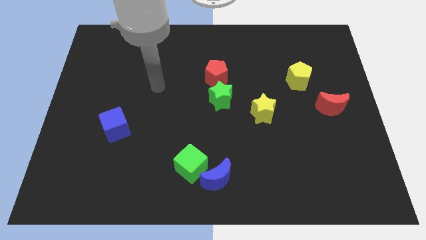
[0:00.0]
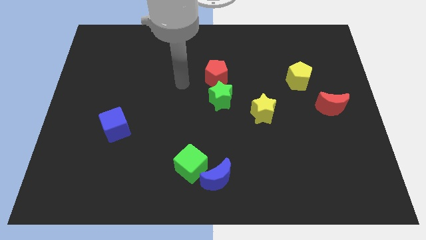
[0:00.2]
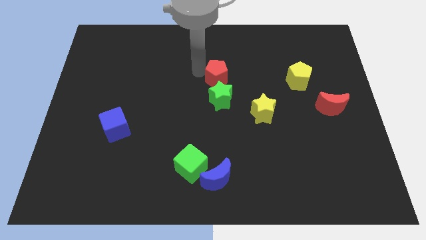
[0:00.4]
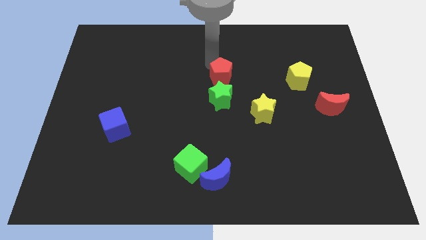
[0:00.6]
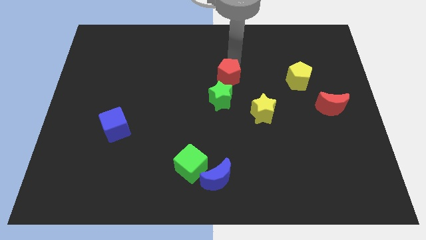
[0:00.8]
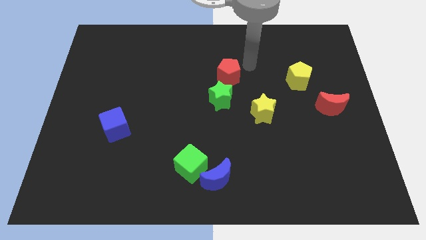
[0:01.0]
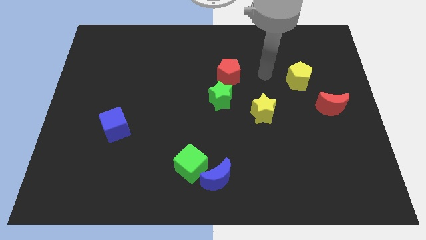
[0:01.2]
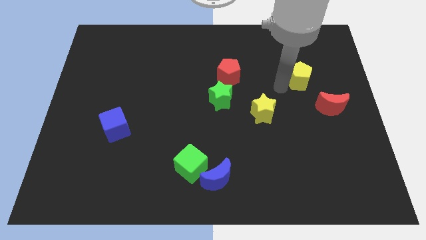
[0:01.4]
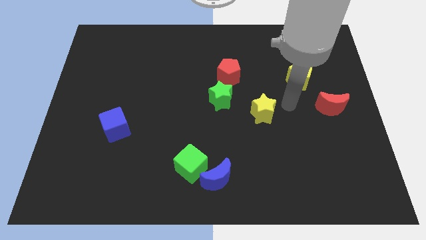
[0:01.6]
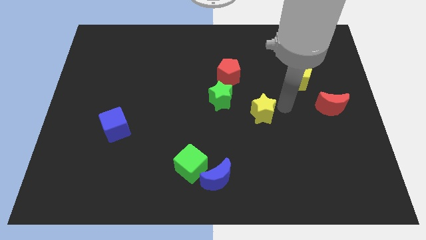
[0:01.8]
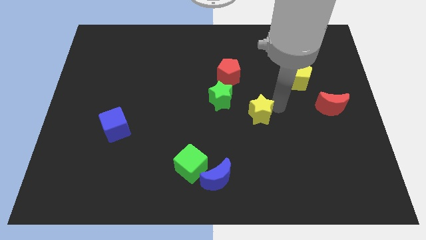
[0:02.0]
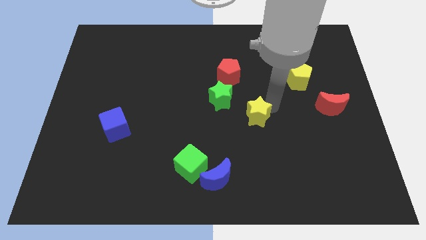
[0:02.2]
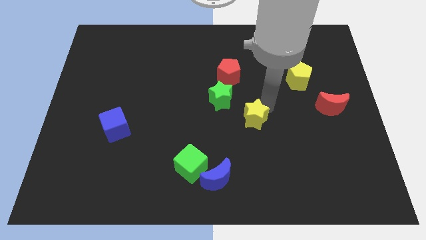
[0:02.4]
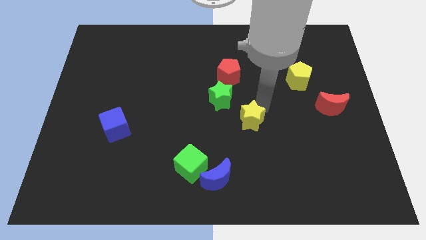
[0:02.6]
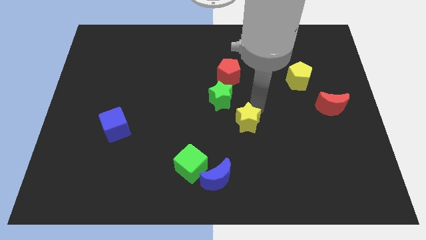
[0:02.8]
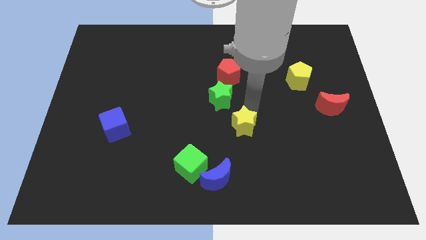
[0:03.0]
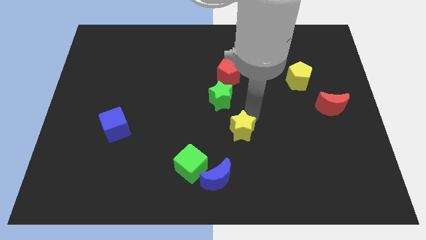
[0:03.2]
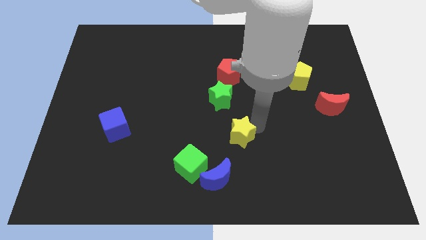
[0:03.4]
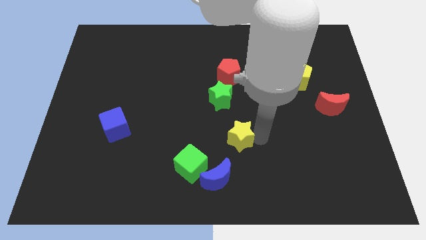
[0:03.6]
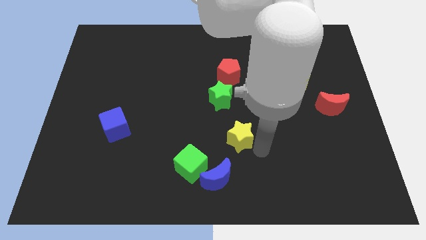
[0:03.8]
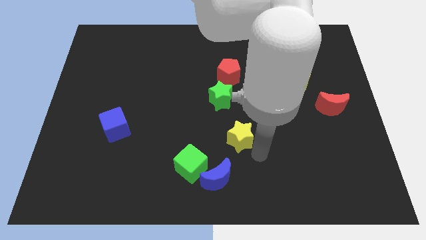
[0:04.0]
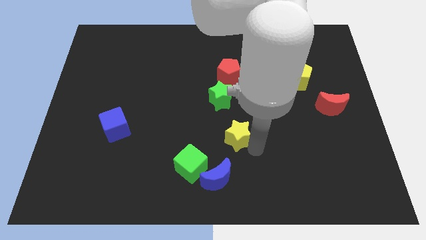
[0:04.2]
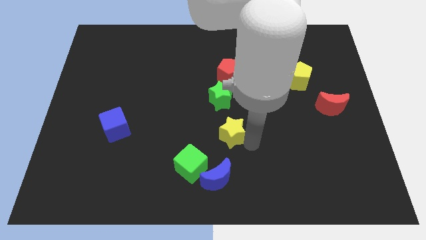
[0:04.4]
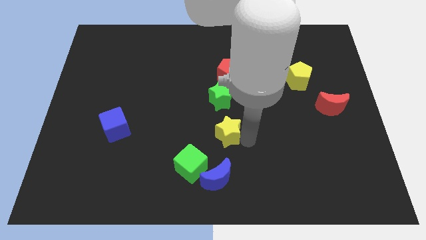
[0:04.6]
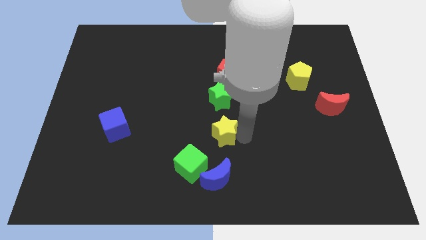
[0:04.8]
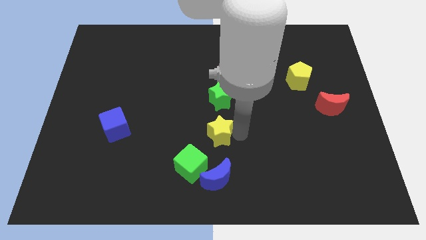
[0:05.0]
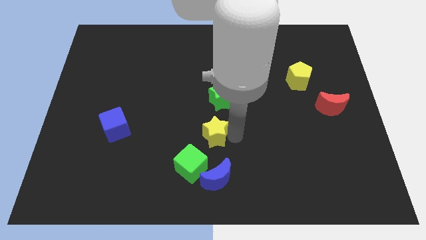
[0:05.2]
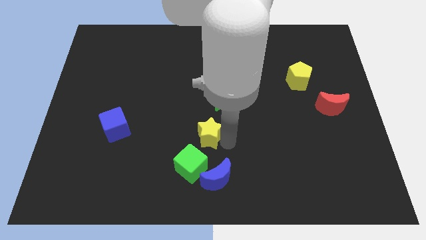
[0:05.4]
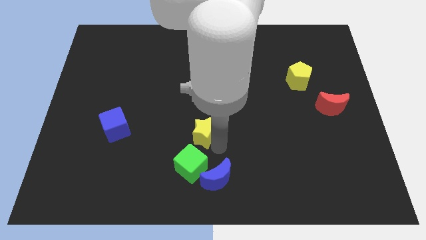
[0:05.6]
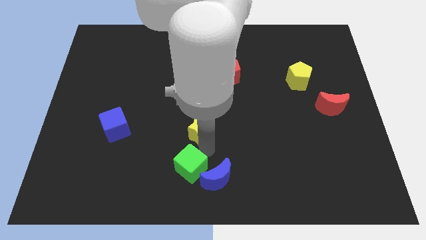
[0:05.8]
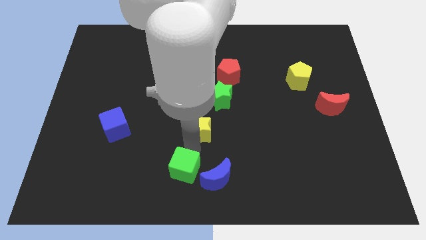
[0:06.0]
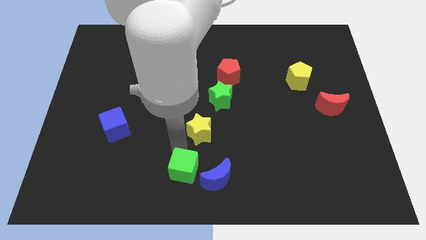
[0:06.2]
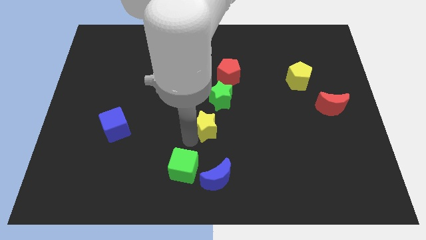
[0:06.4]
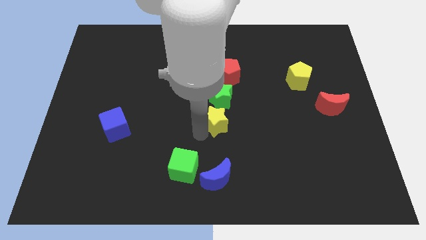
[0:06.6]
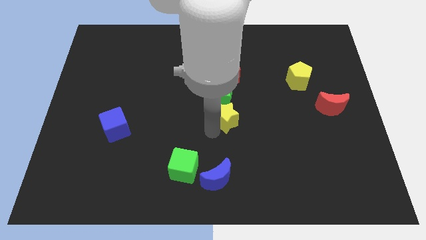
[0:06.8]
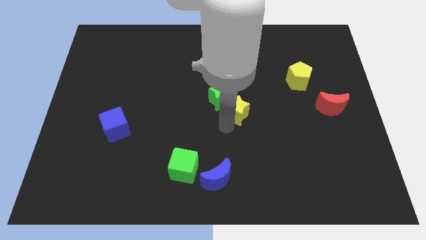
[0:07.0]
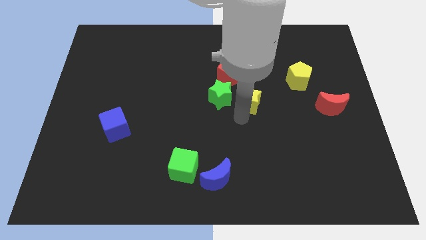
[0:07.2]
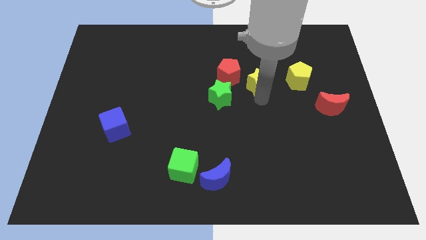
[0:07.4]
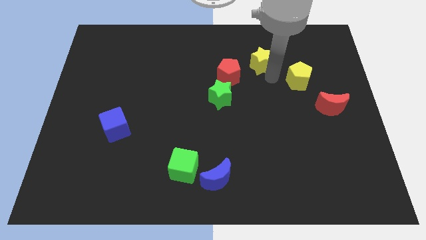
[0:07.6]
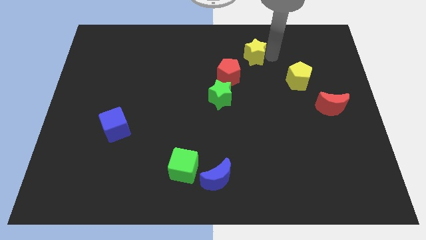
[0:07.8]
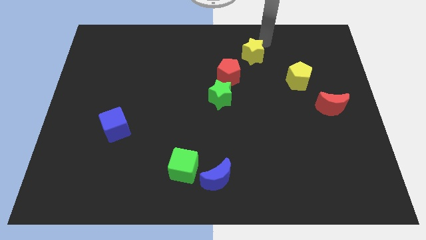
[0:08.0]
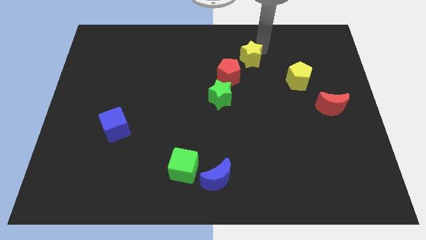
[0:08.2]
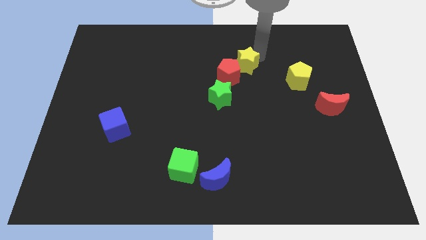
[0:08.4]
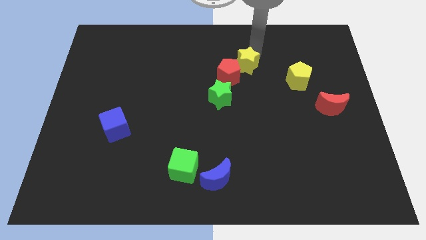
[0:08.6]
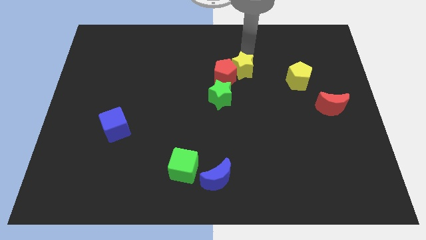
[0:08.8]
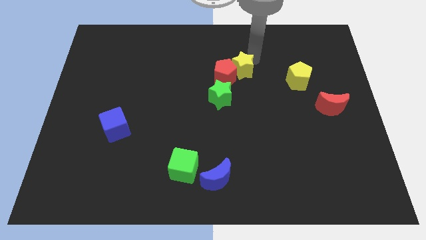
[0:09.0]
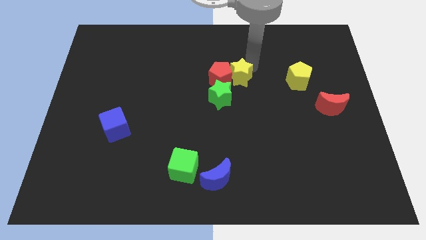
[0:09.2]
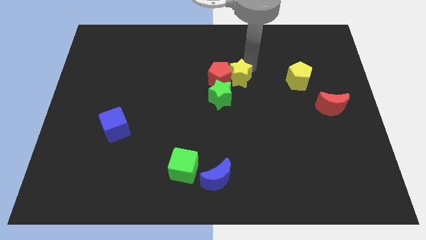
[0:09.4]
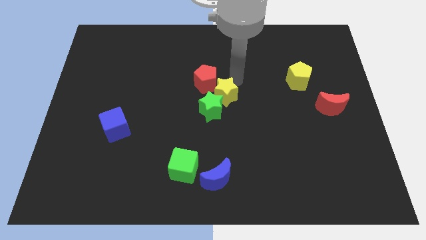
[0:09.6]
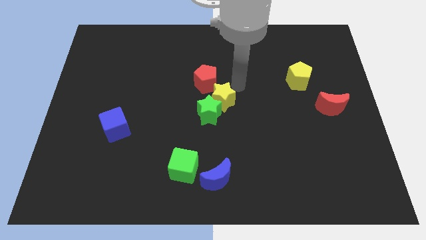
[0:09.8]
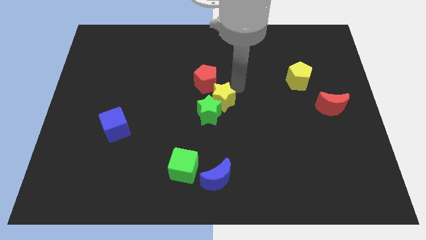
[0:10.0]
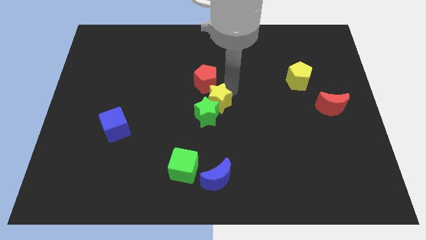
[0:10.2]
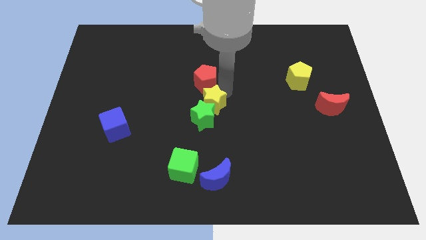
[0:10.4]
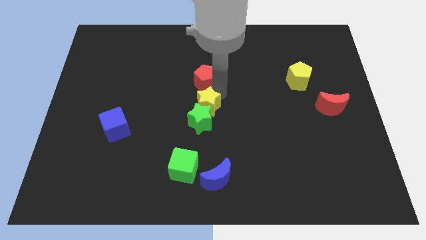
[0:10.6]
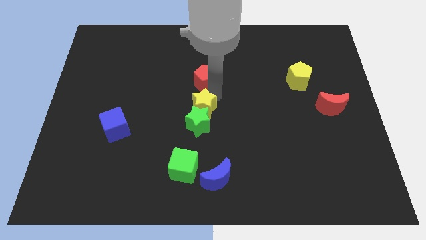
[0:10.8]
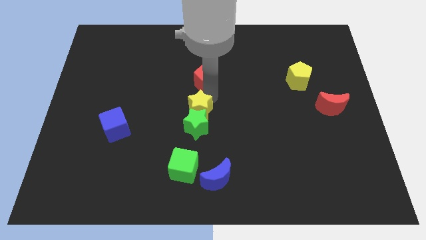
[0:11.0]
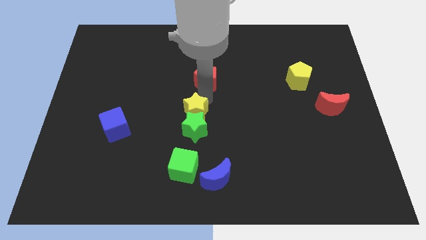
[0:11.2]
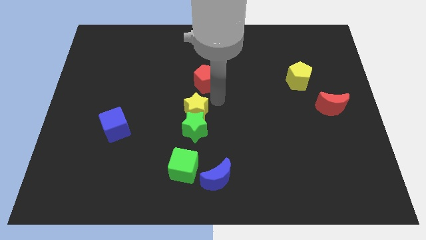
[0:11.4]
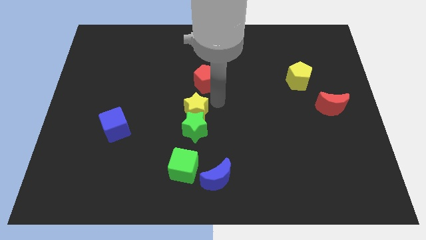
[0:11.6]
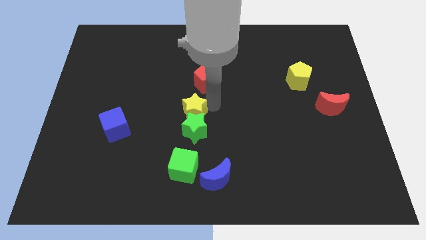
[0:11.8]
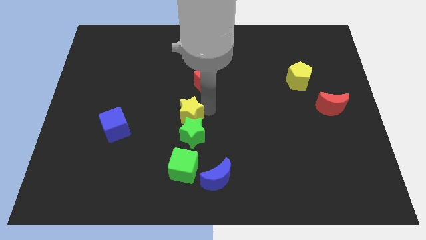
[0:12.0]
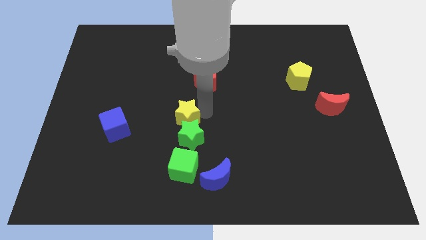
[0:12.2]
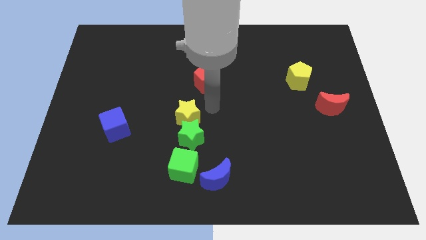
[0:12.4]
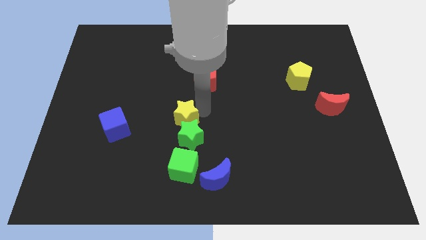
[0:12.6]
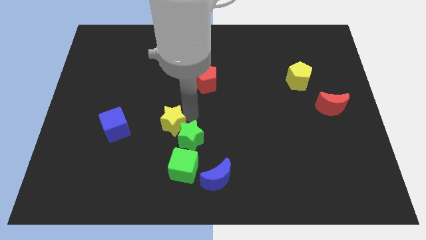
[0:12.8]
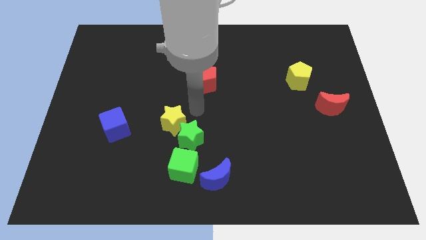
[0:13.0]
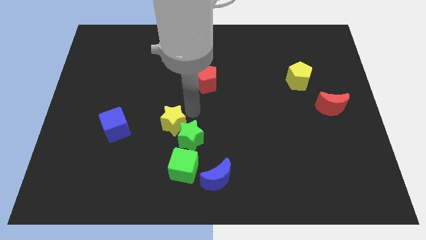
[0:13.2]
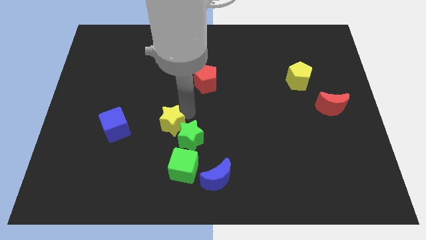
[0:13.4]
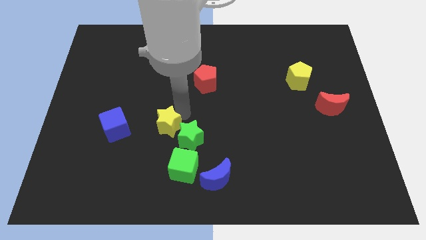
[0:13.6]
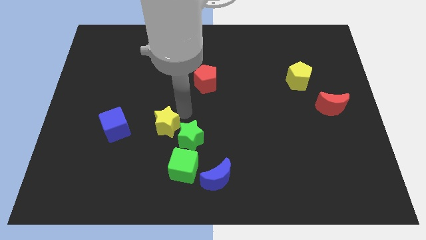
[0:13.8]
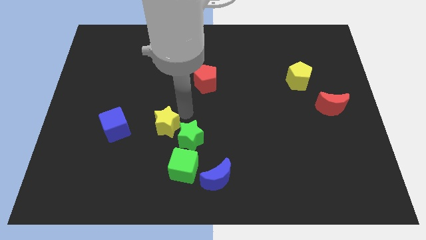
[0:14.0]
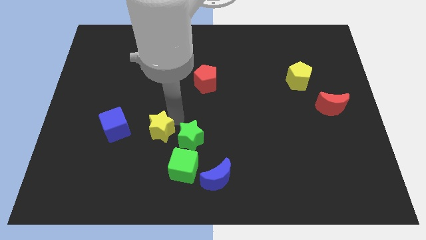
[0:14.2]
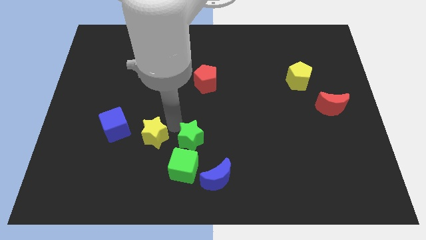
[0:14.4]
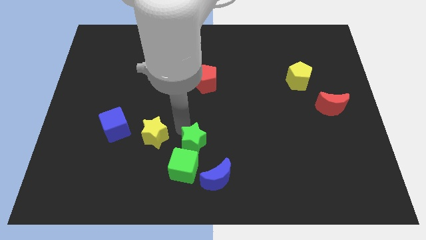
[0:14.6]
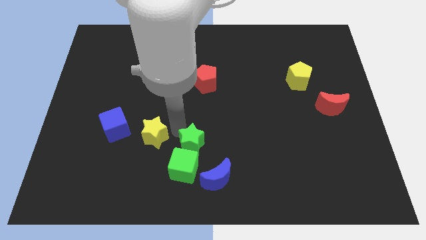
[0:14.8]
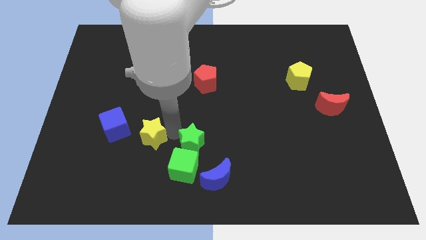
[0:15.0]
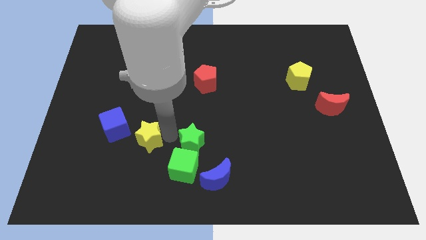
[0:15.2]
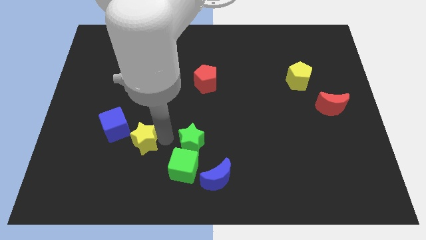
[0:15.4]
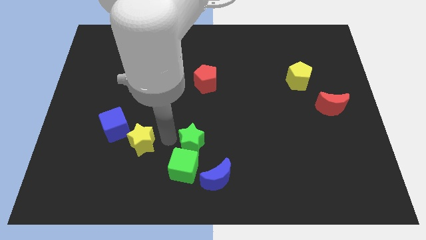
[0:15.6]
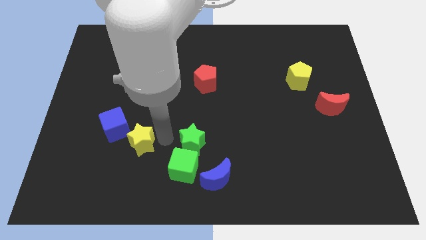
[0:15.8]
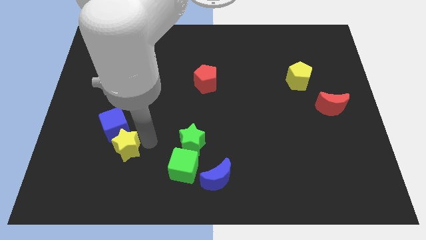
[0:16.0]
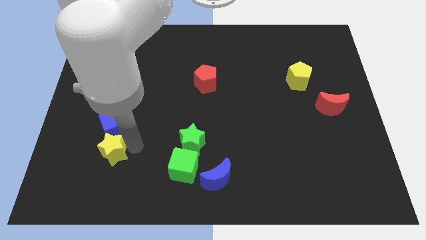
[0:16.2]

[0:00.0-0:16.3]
move the yellow star to the bottom left side of the blue cube
